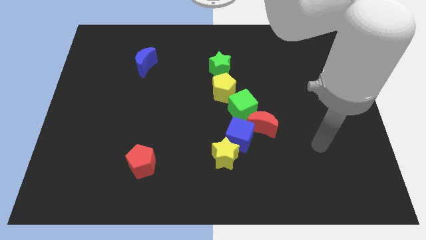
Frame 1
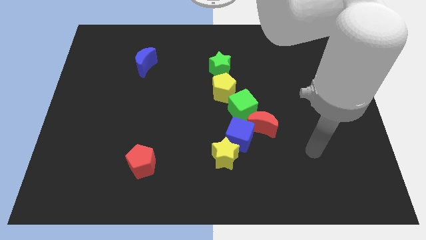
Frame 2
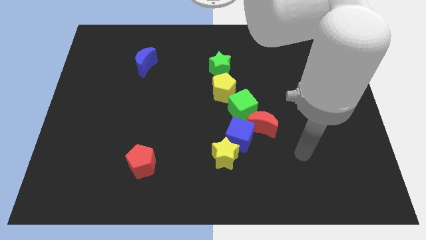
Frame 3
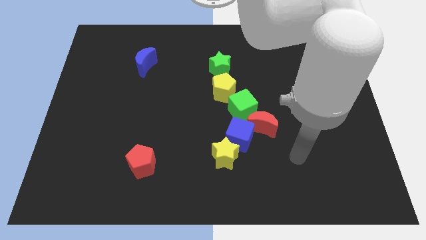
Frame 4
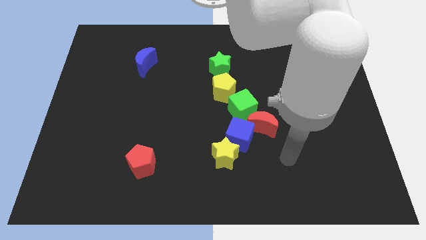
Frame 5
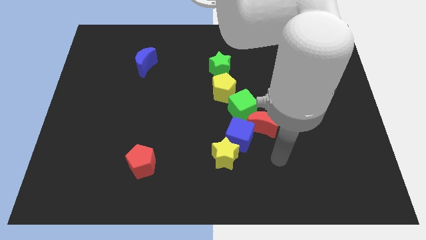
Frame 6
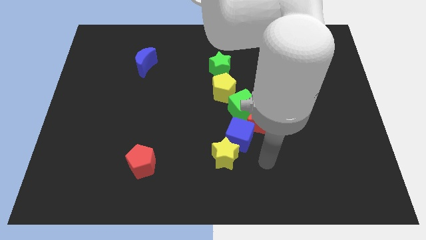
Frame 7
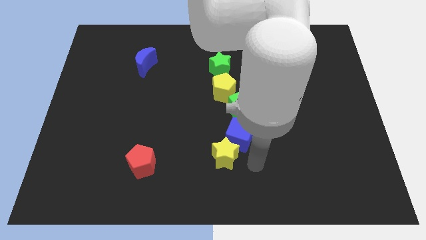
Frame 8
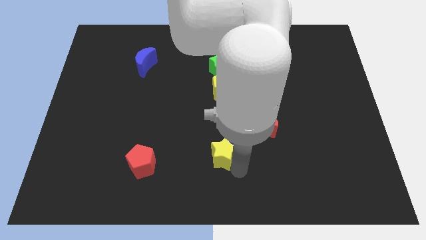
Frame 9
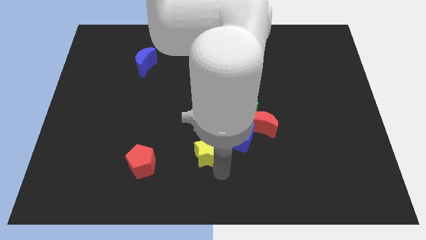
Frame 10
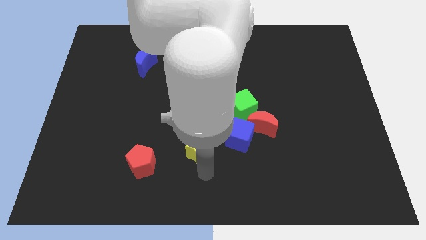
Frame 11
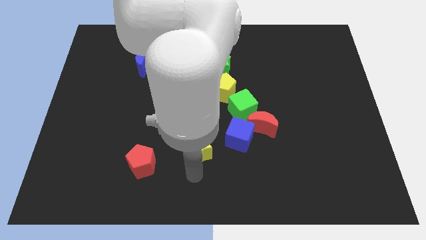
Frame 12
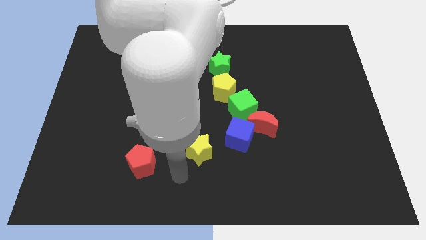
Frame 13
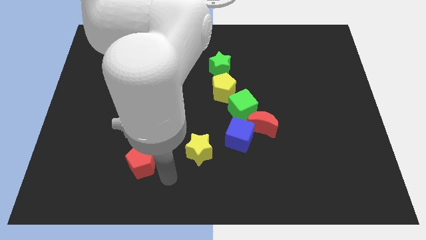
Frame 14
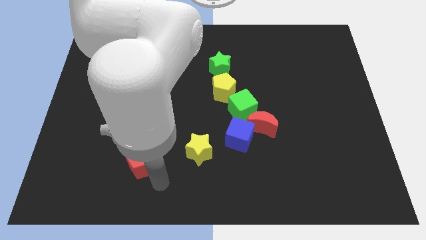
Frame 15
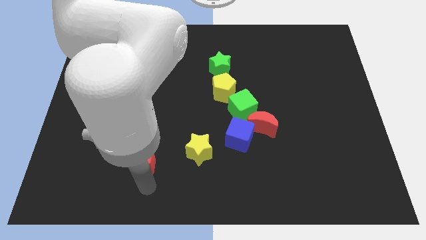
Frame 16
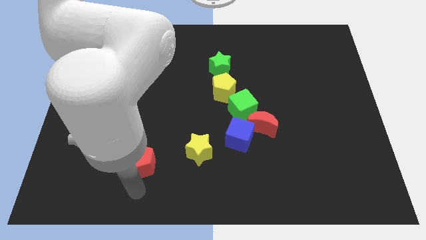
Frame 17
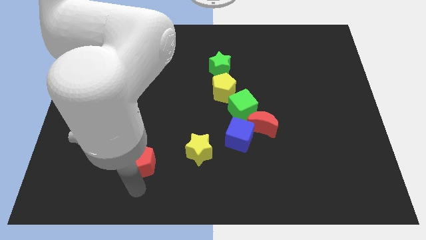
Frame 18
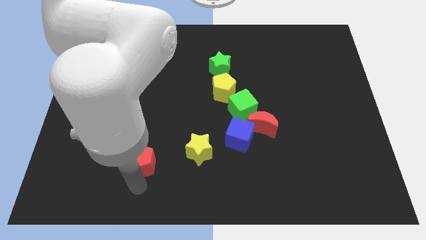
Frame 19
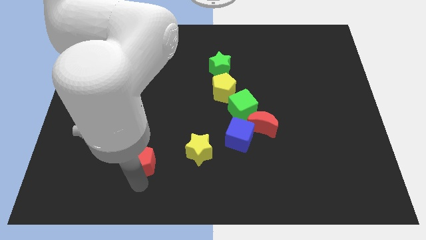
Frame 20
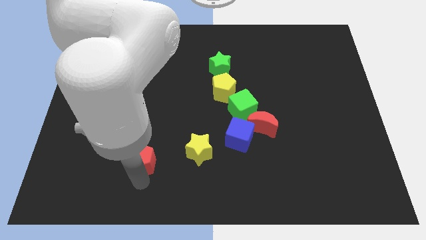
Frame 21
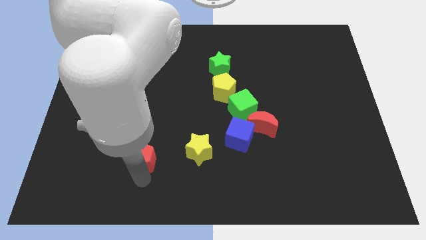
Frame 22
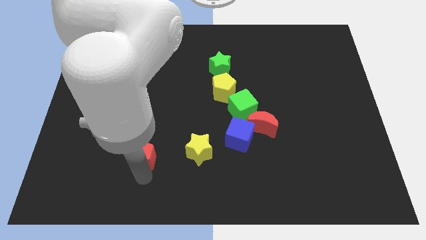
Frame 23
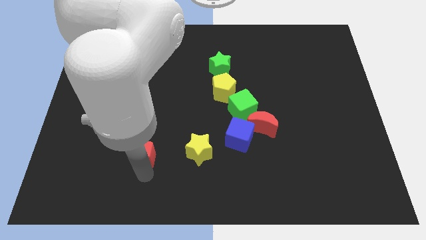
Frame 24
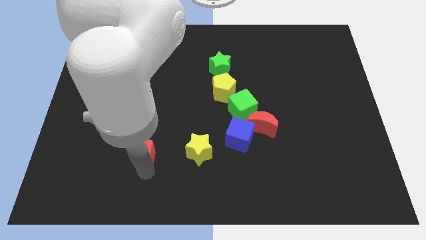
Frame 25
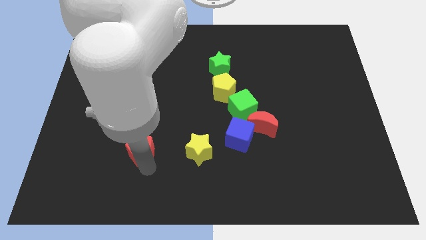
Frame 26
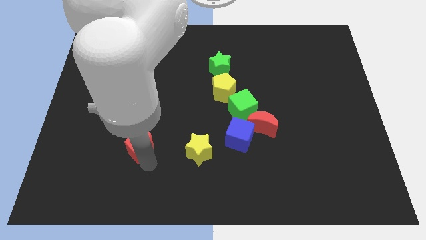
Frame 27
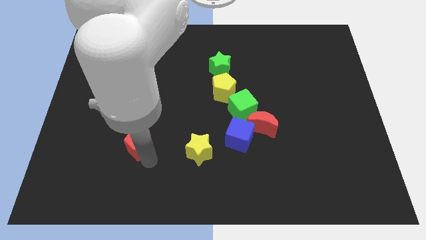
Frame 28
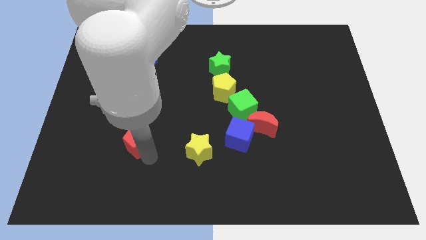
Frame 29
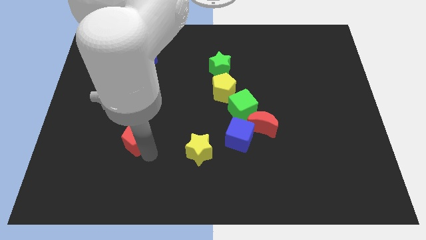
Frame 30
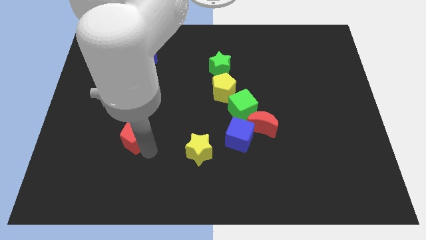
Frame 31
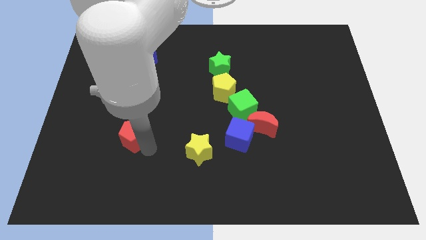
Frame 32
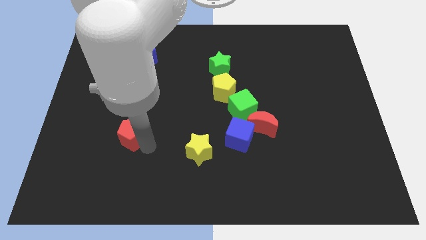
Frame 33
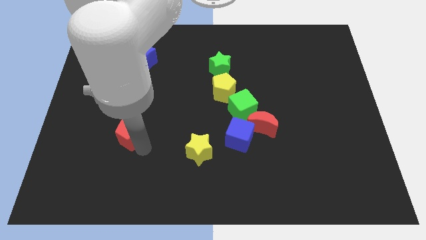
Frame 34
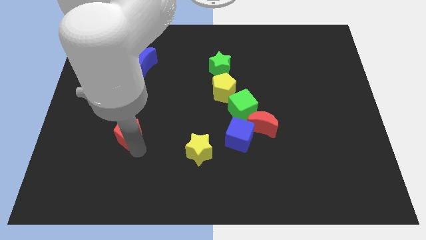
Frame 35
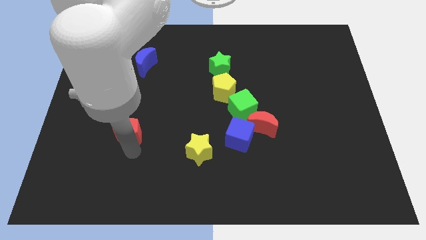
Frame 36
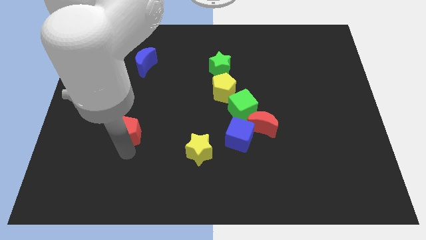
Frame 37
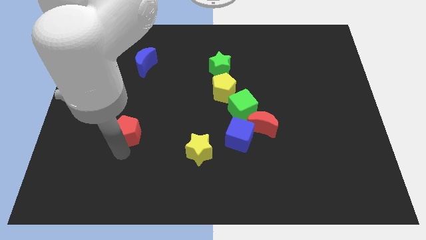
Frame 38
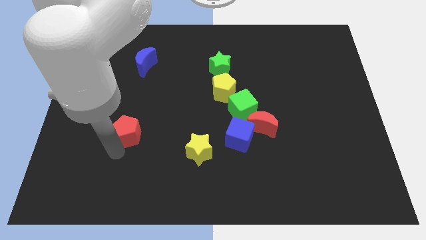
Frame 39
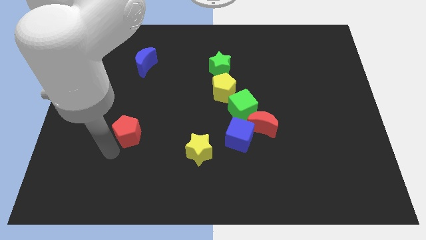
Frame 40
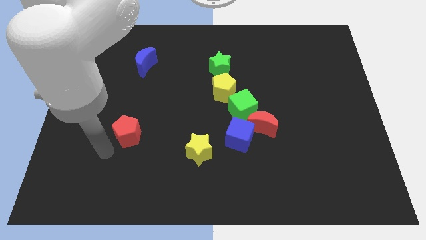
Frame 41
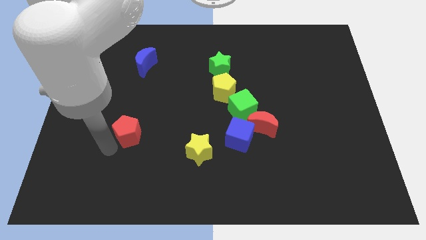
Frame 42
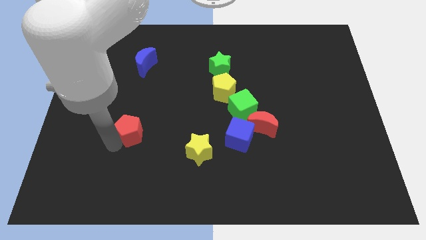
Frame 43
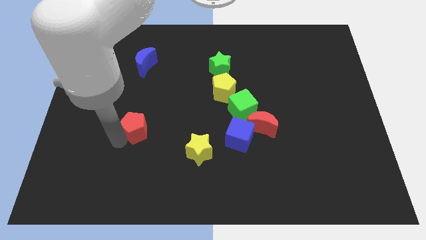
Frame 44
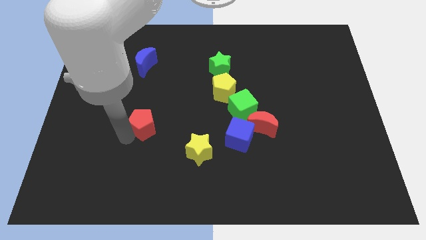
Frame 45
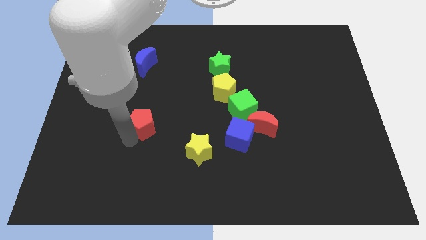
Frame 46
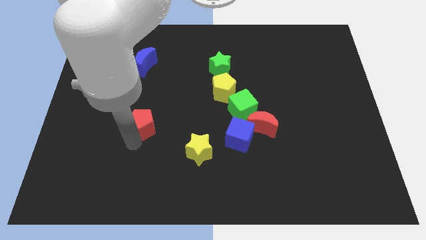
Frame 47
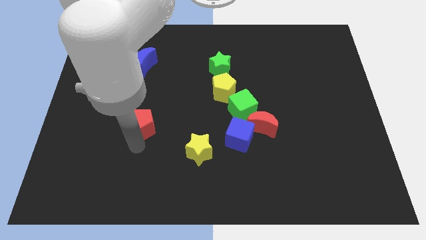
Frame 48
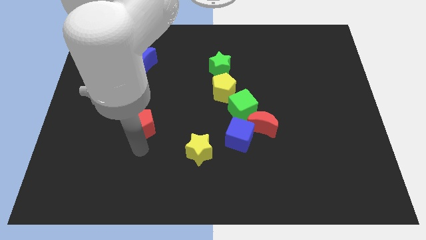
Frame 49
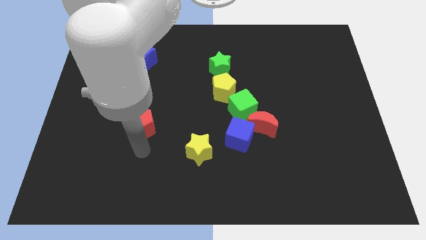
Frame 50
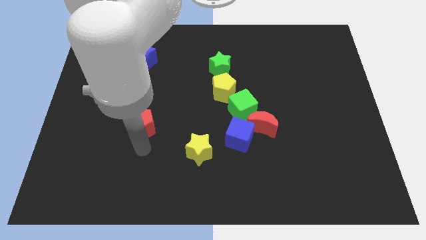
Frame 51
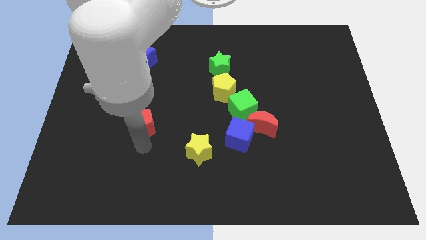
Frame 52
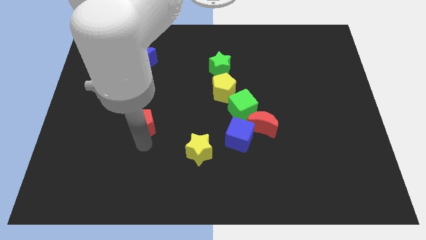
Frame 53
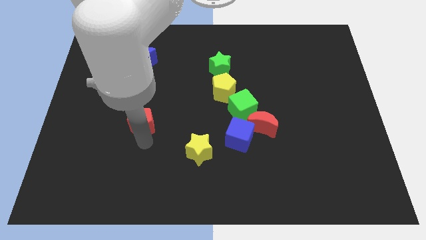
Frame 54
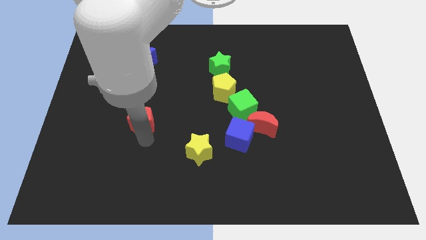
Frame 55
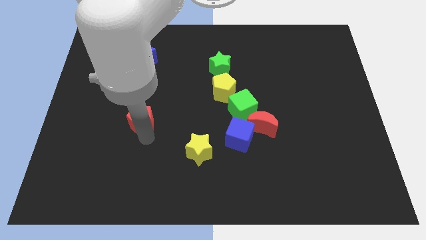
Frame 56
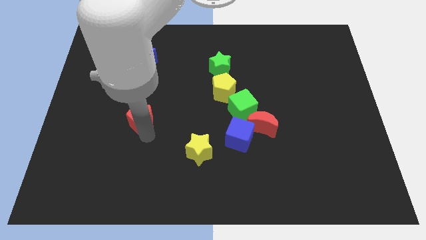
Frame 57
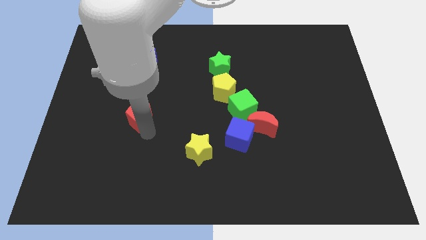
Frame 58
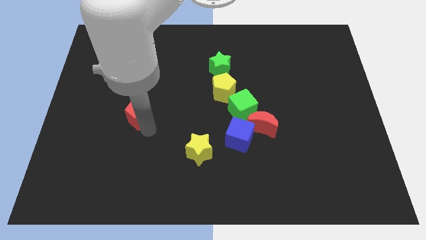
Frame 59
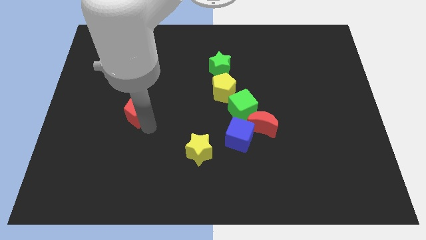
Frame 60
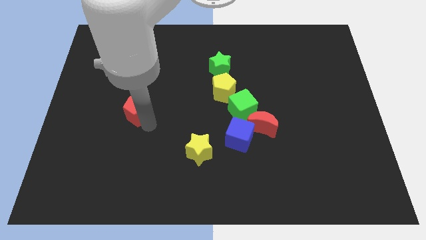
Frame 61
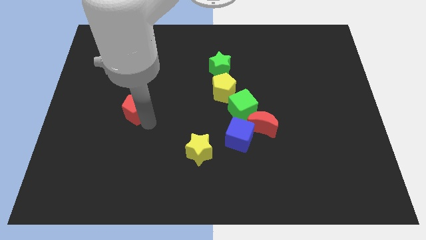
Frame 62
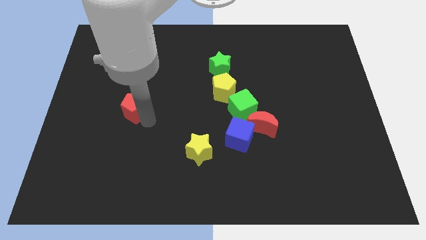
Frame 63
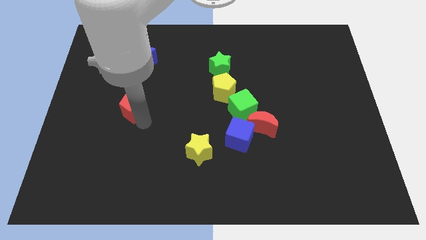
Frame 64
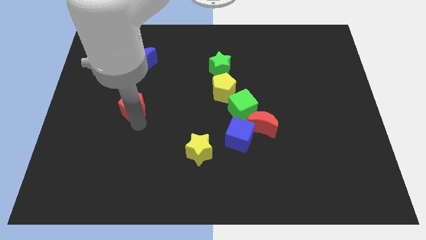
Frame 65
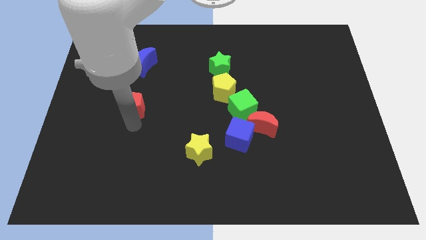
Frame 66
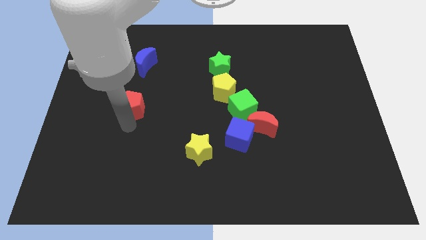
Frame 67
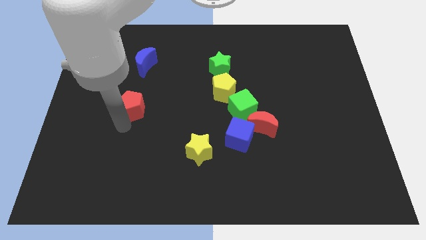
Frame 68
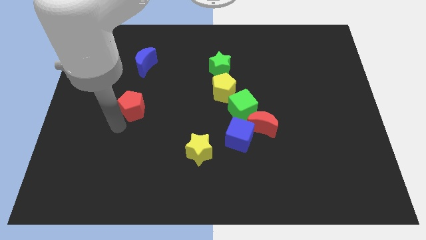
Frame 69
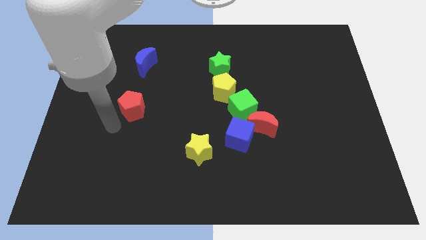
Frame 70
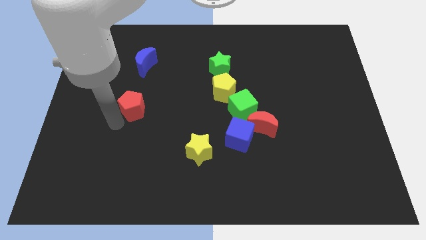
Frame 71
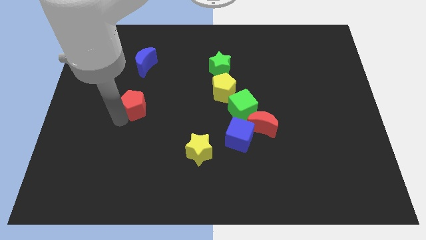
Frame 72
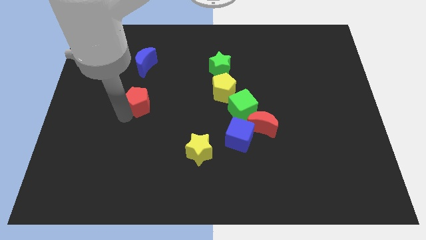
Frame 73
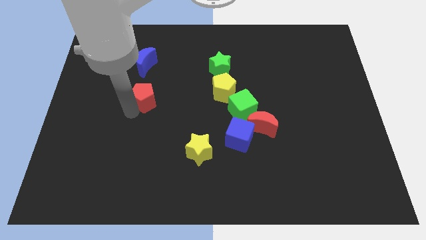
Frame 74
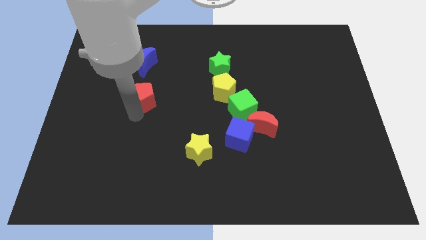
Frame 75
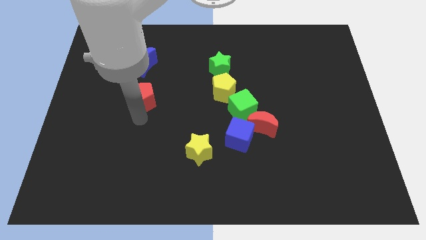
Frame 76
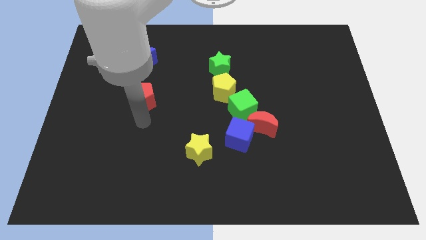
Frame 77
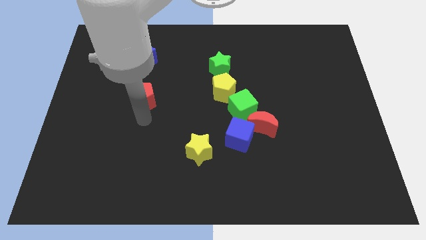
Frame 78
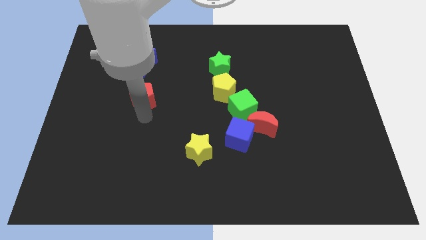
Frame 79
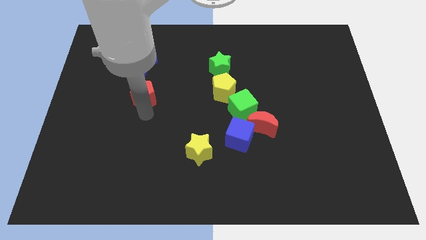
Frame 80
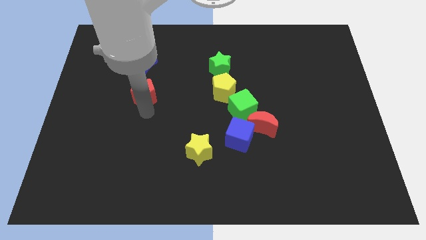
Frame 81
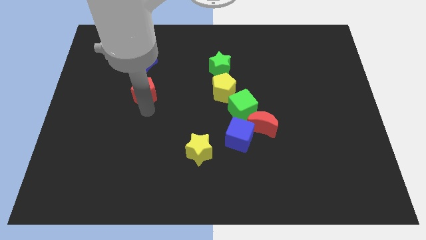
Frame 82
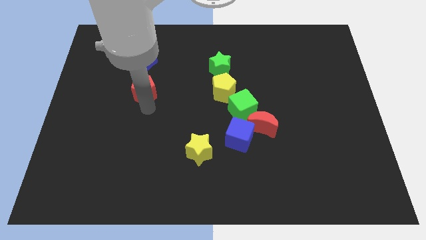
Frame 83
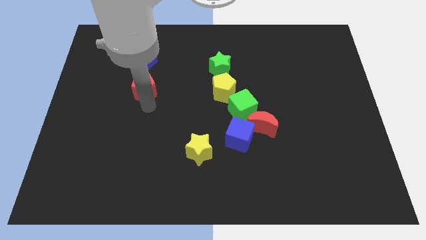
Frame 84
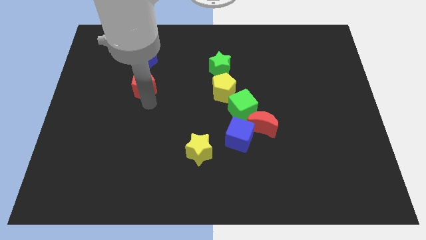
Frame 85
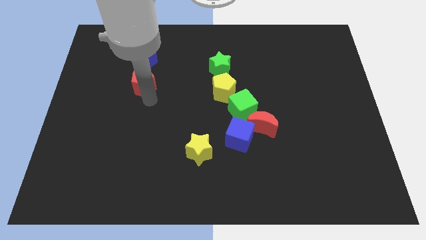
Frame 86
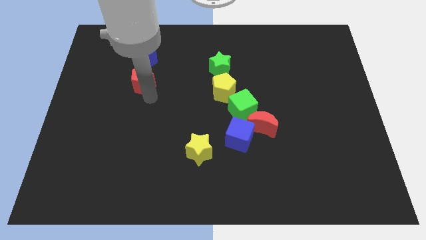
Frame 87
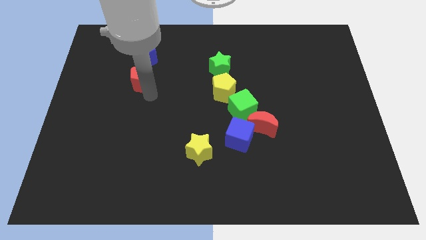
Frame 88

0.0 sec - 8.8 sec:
slide the red pentagon towards the blue moon
